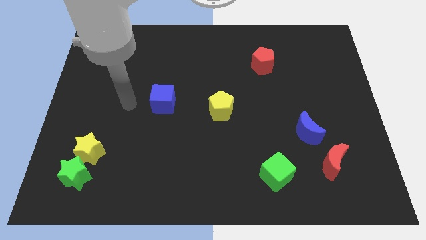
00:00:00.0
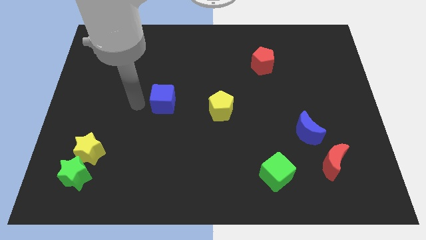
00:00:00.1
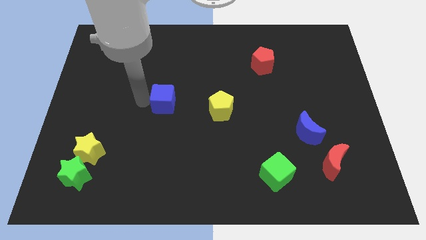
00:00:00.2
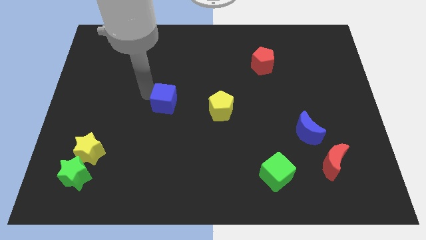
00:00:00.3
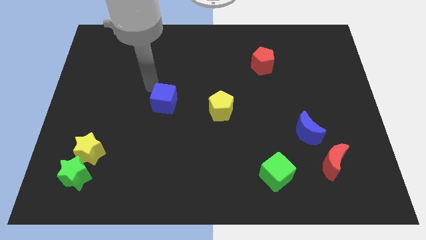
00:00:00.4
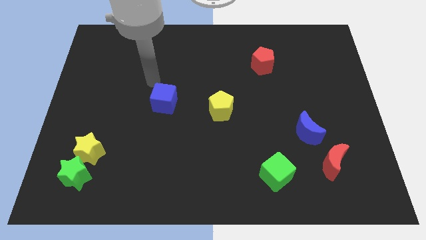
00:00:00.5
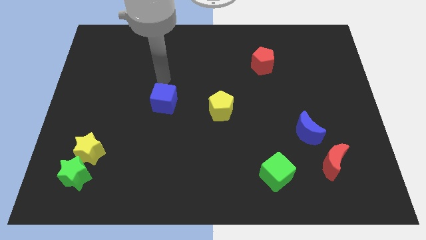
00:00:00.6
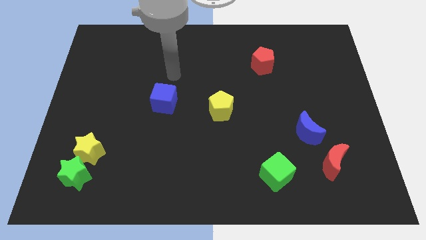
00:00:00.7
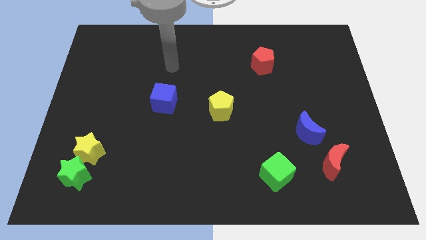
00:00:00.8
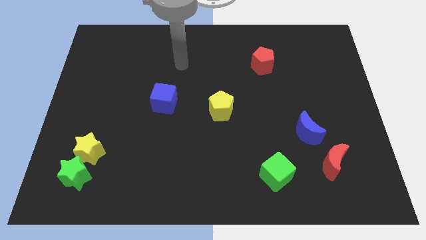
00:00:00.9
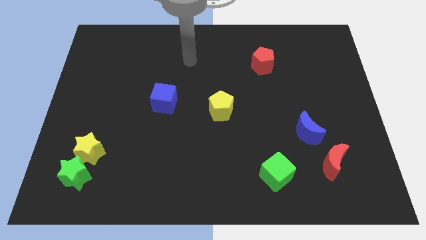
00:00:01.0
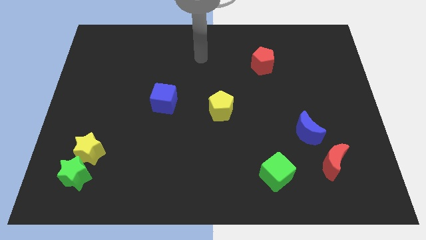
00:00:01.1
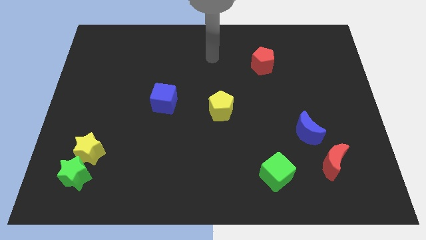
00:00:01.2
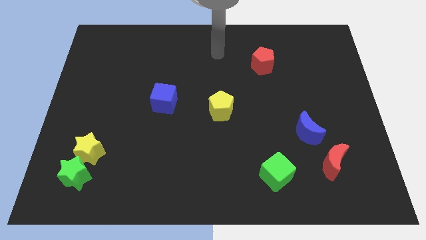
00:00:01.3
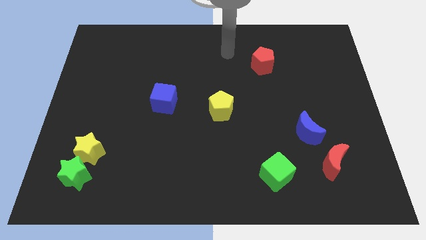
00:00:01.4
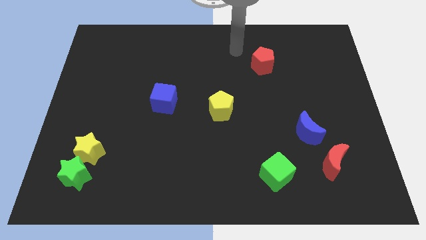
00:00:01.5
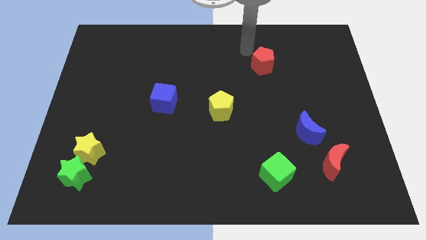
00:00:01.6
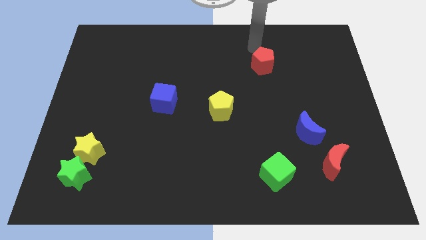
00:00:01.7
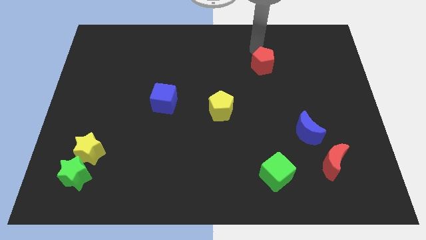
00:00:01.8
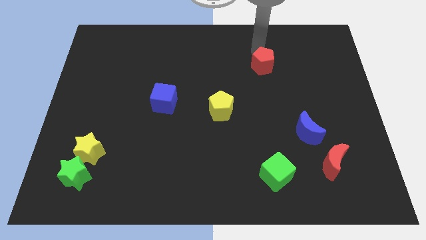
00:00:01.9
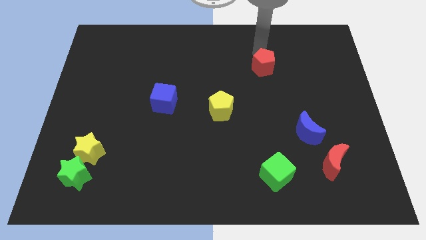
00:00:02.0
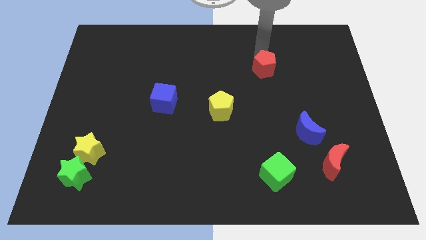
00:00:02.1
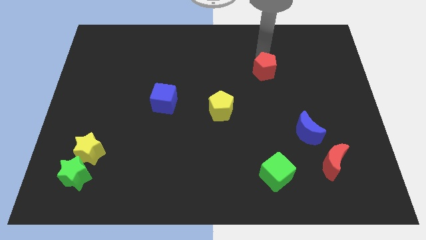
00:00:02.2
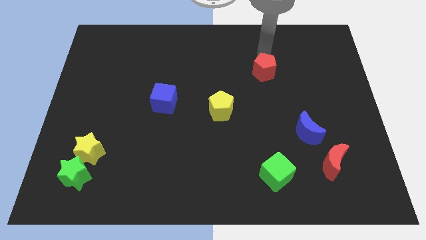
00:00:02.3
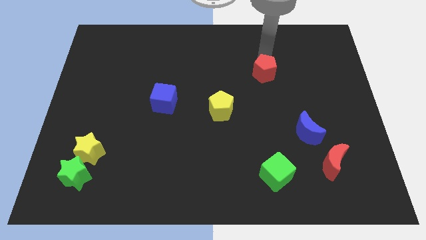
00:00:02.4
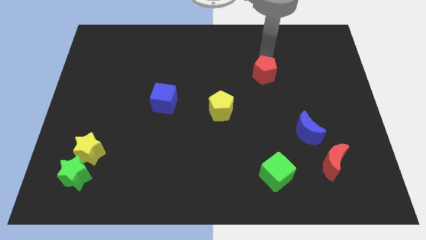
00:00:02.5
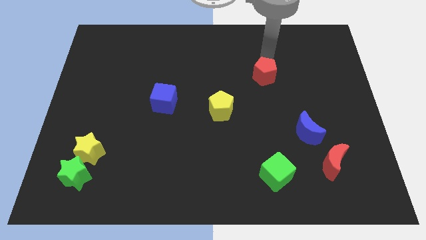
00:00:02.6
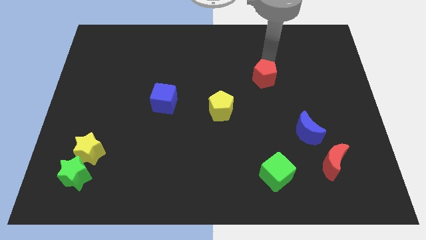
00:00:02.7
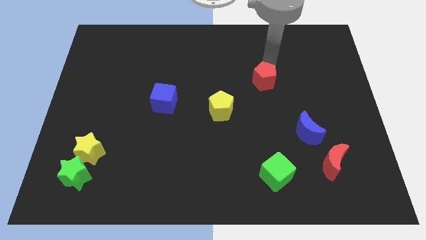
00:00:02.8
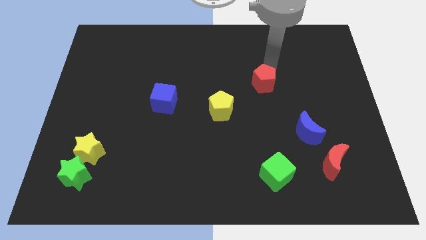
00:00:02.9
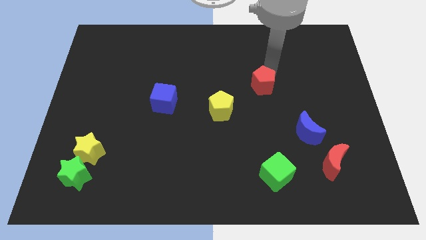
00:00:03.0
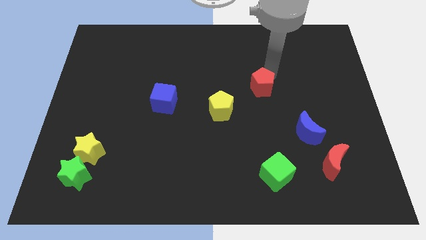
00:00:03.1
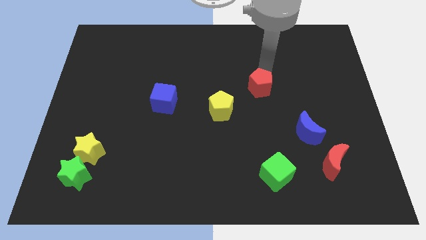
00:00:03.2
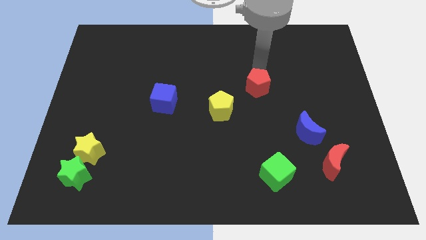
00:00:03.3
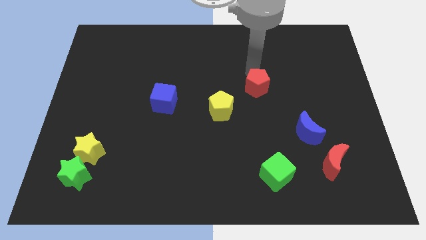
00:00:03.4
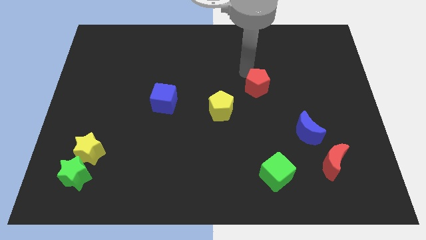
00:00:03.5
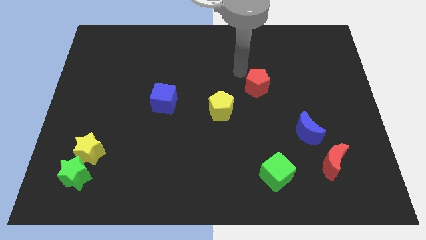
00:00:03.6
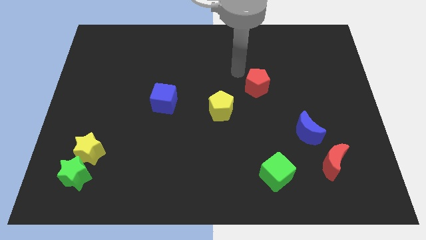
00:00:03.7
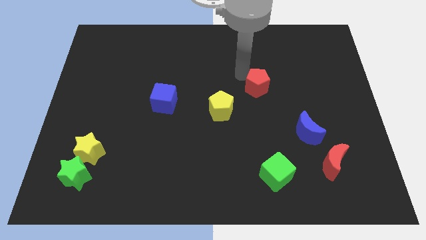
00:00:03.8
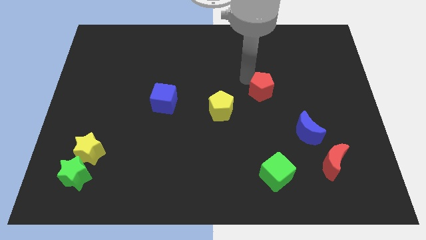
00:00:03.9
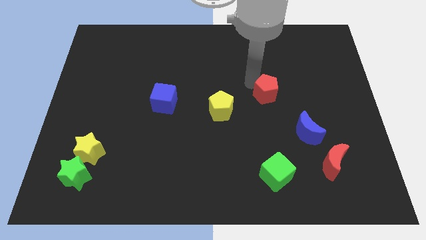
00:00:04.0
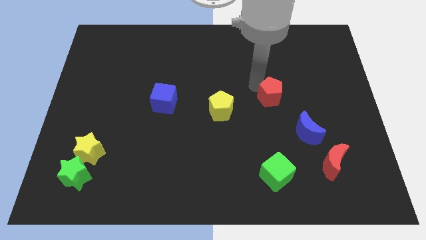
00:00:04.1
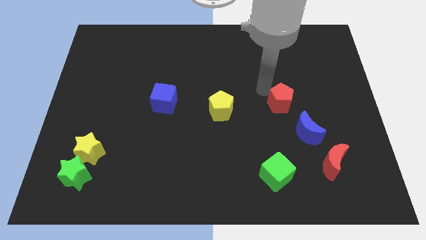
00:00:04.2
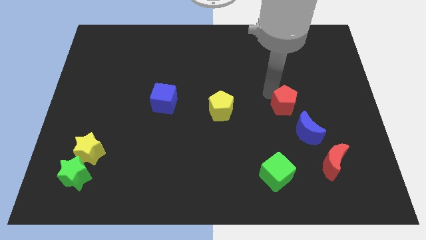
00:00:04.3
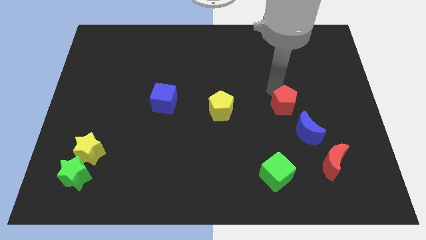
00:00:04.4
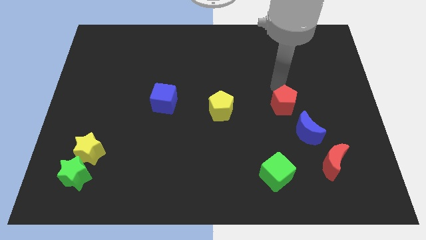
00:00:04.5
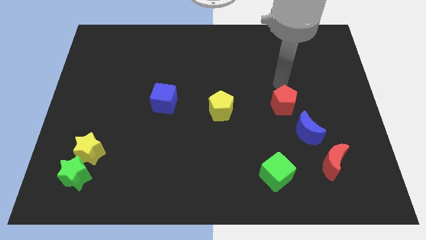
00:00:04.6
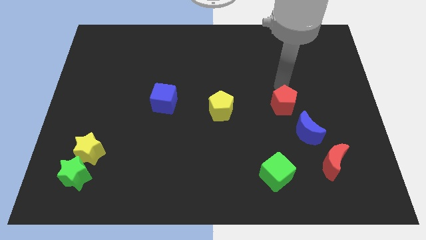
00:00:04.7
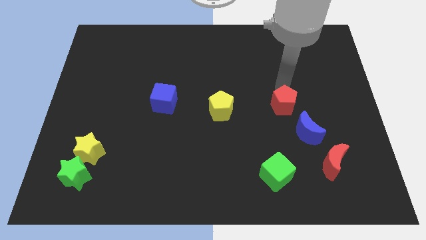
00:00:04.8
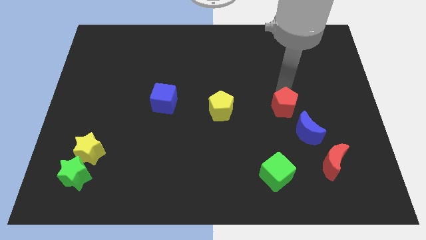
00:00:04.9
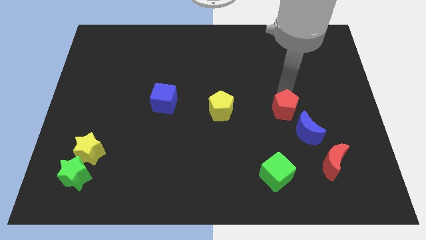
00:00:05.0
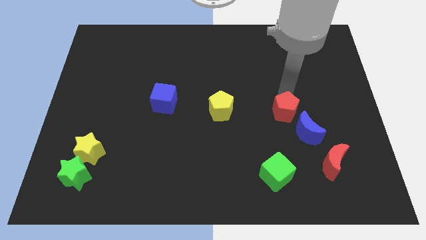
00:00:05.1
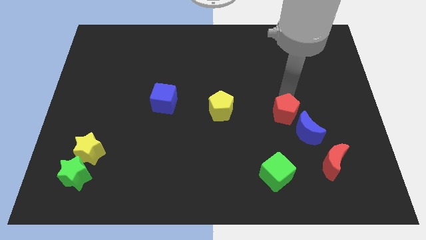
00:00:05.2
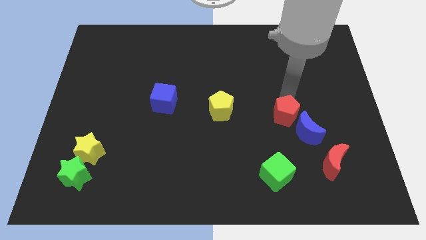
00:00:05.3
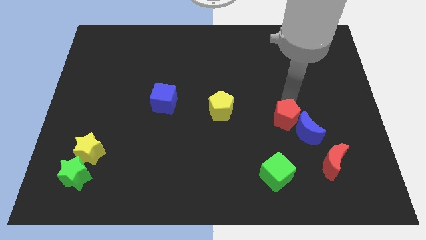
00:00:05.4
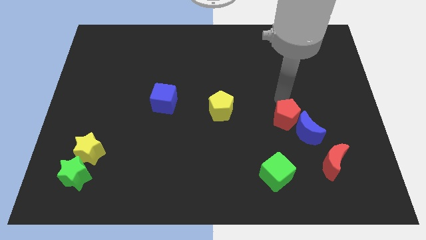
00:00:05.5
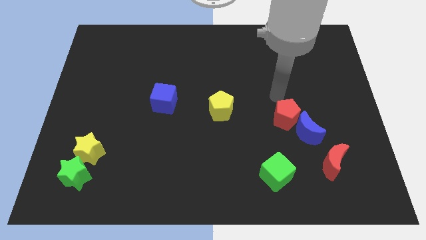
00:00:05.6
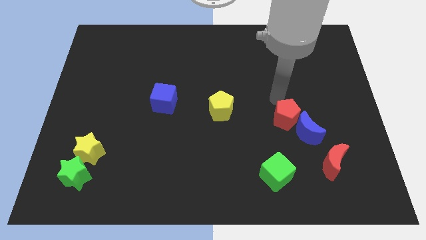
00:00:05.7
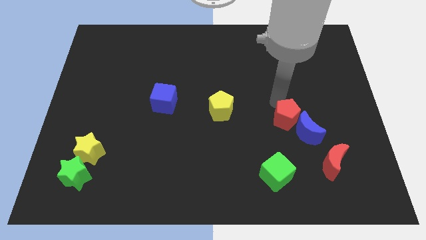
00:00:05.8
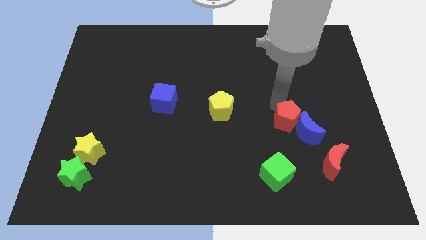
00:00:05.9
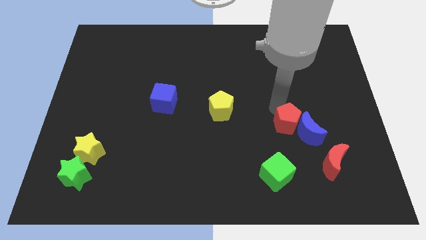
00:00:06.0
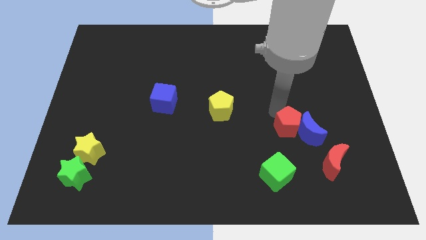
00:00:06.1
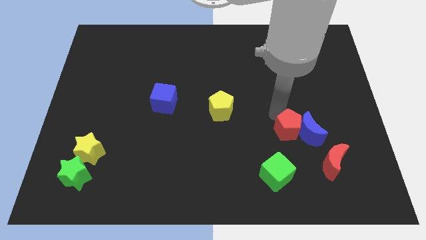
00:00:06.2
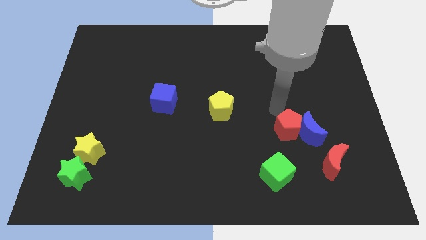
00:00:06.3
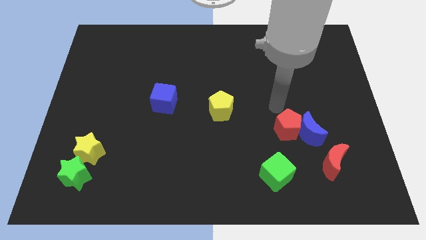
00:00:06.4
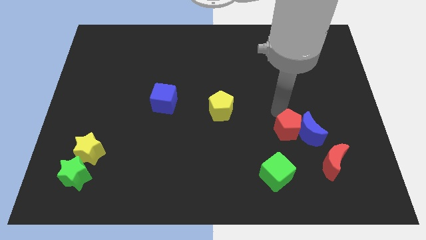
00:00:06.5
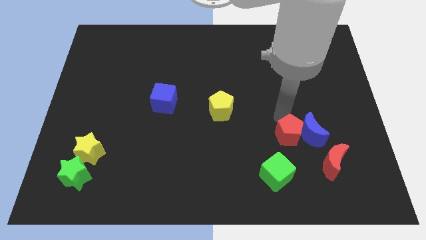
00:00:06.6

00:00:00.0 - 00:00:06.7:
push the red pentagon to the top right of the green cube

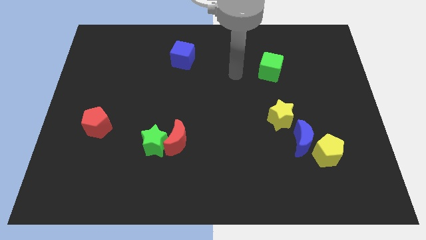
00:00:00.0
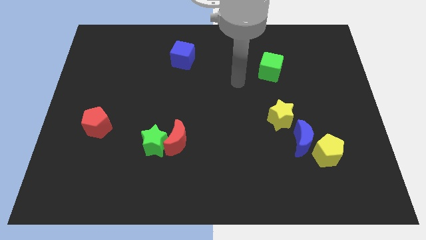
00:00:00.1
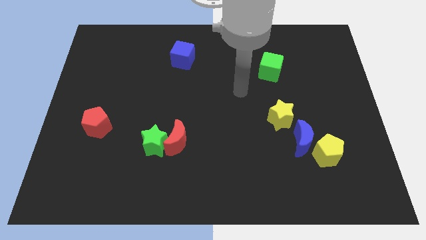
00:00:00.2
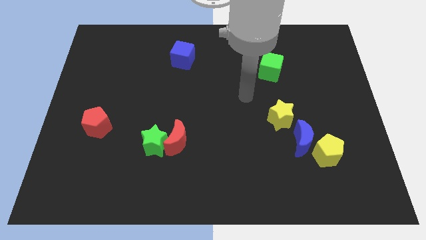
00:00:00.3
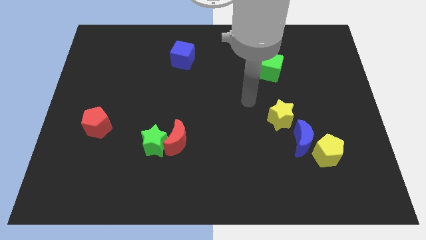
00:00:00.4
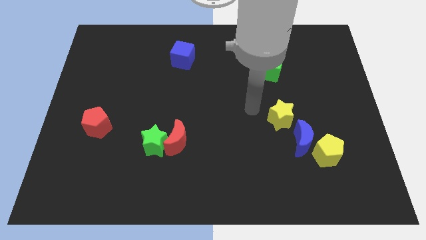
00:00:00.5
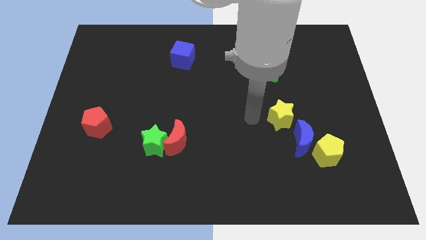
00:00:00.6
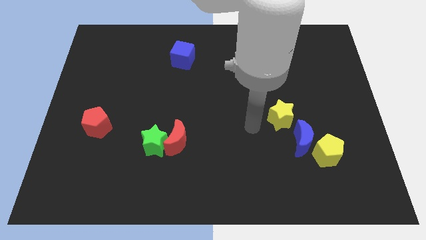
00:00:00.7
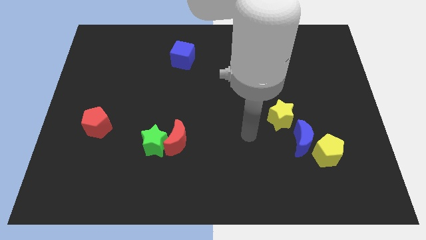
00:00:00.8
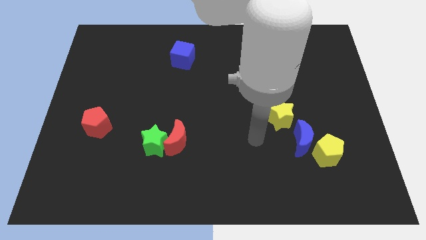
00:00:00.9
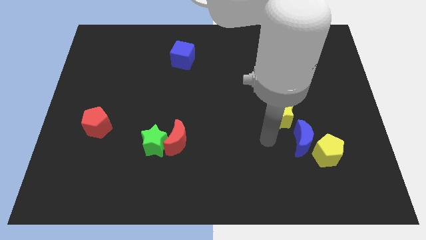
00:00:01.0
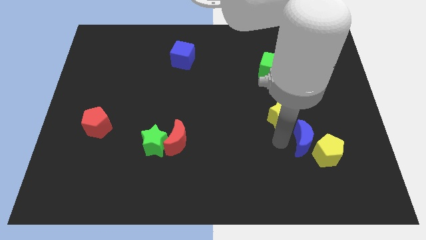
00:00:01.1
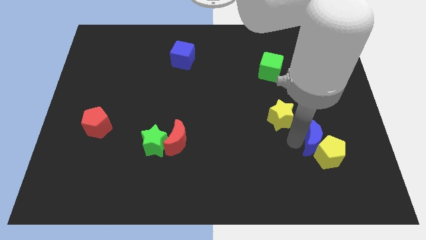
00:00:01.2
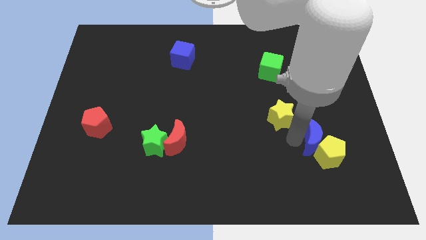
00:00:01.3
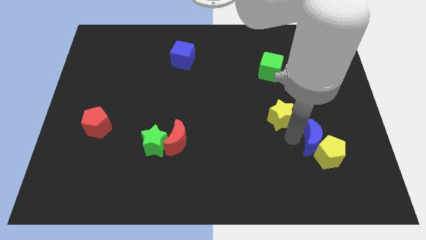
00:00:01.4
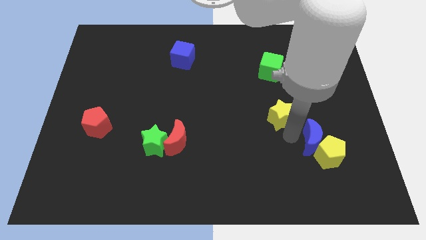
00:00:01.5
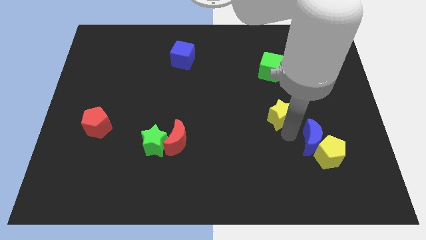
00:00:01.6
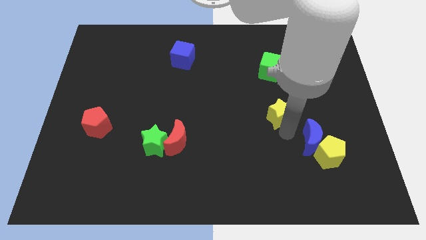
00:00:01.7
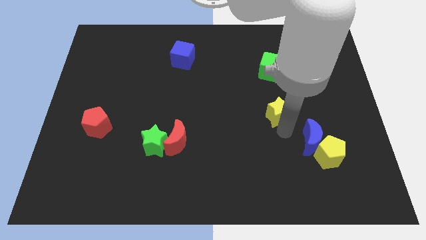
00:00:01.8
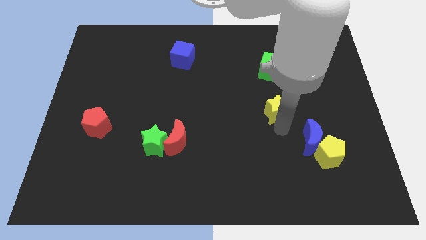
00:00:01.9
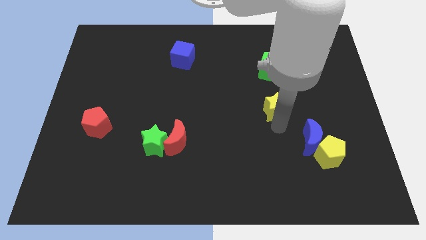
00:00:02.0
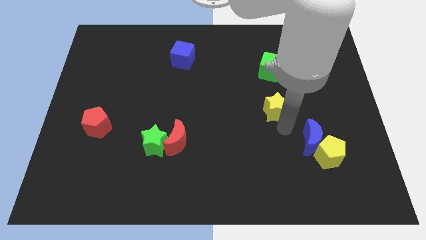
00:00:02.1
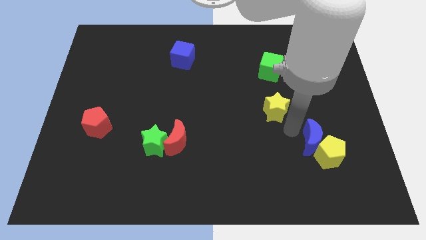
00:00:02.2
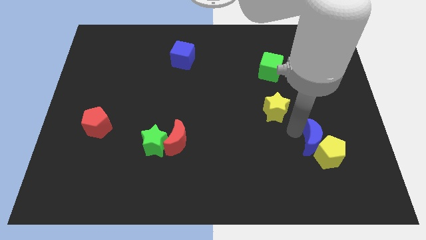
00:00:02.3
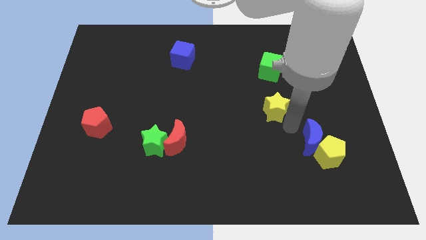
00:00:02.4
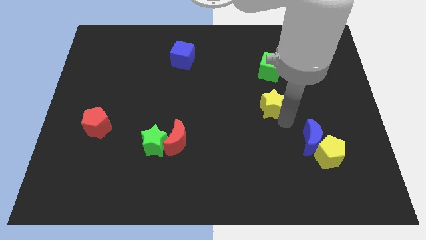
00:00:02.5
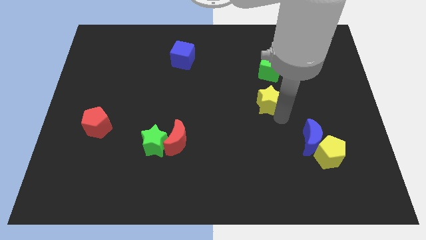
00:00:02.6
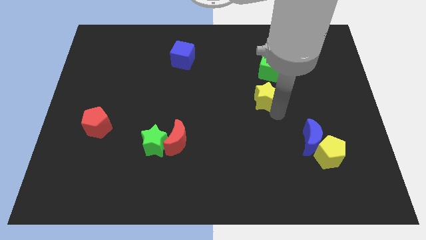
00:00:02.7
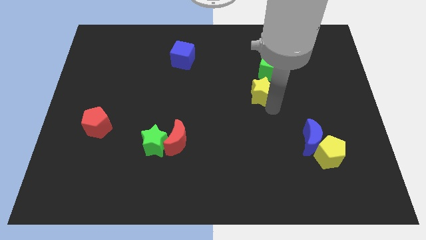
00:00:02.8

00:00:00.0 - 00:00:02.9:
move the yellow star to the bottom left of the green cube
